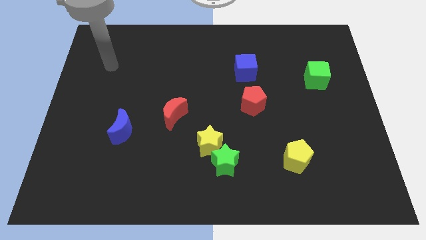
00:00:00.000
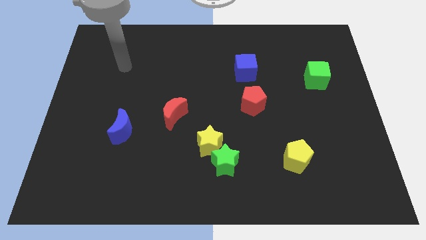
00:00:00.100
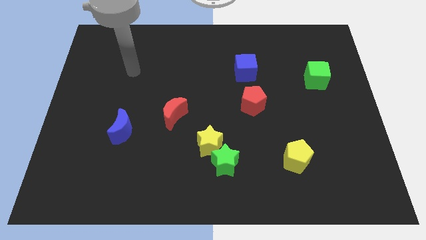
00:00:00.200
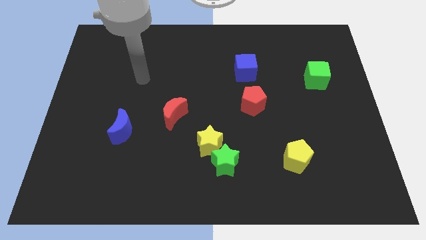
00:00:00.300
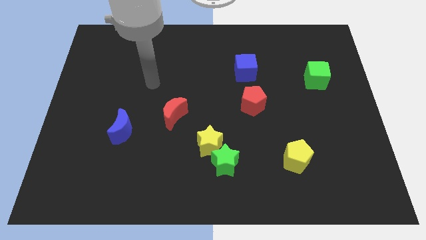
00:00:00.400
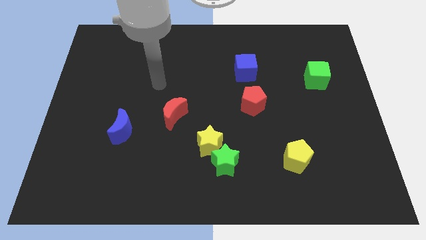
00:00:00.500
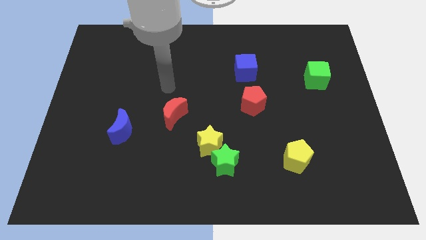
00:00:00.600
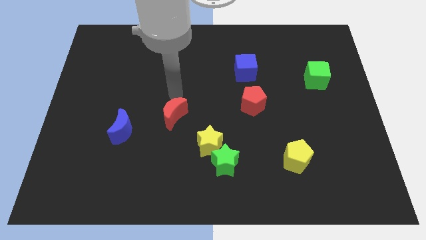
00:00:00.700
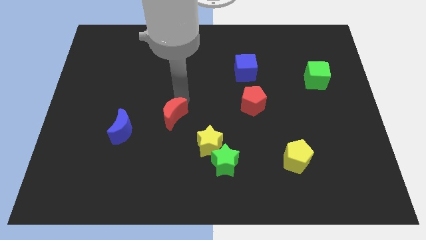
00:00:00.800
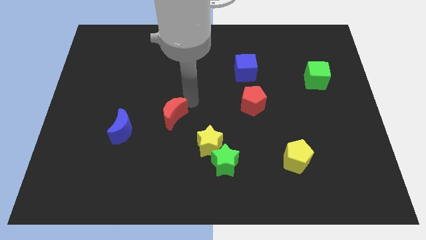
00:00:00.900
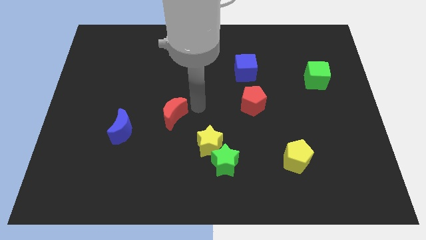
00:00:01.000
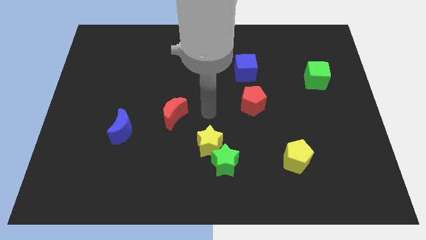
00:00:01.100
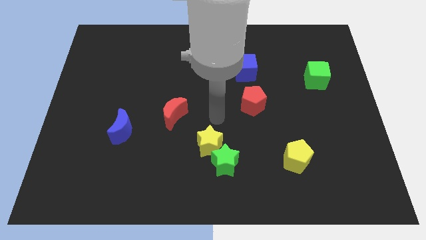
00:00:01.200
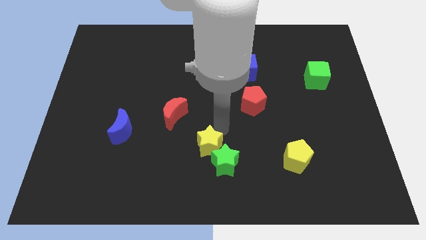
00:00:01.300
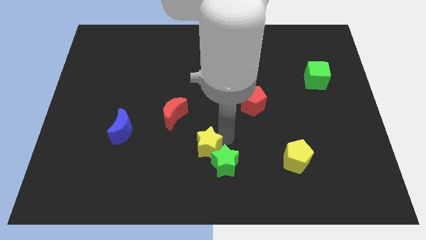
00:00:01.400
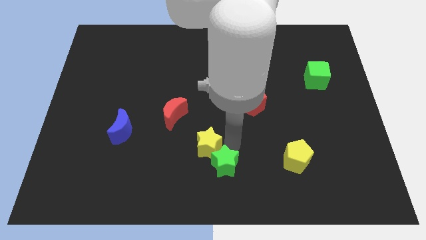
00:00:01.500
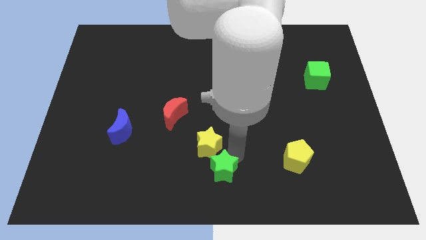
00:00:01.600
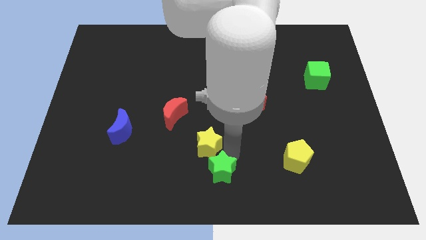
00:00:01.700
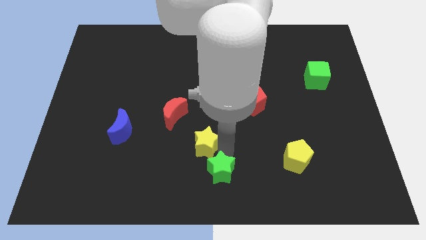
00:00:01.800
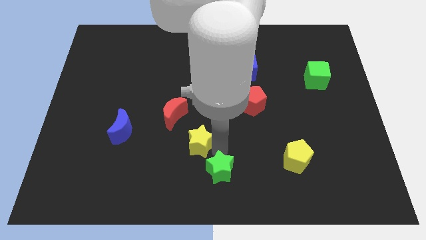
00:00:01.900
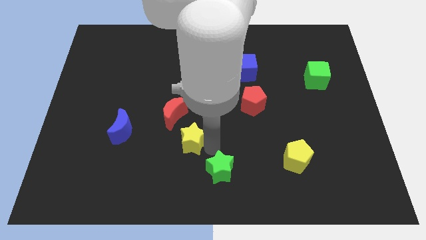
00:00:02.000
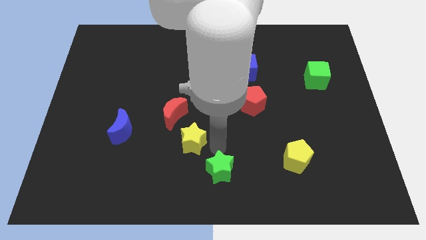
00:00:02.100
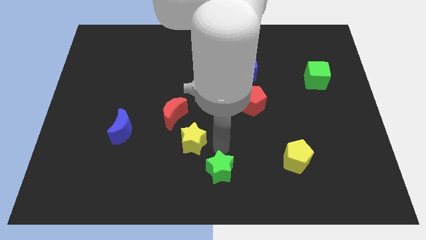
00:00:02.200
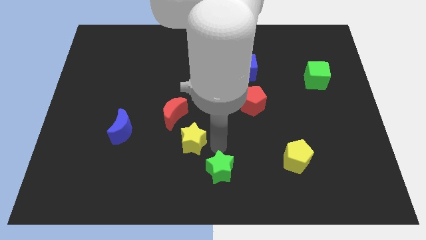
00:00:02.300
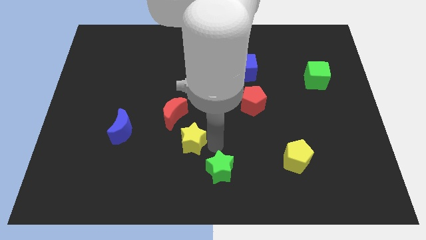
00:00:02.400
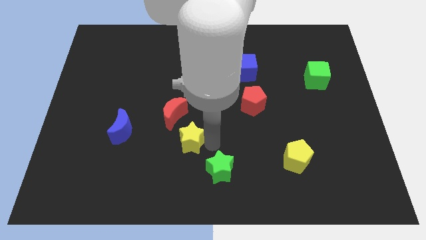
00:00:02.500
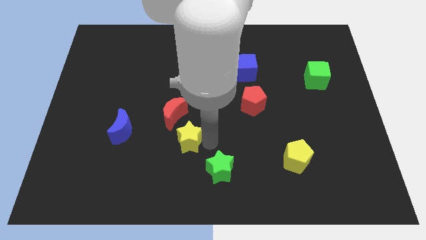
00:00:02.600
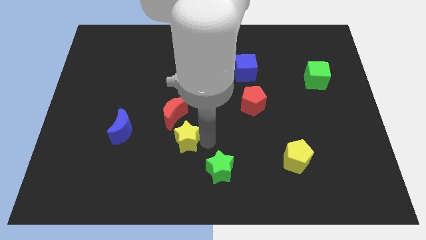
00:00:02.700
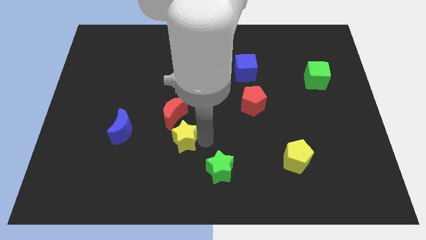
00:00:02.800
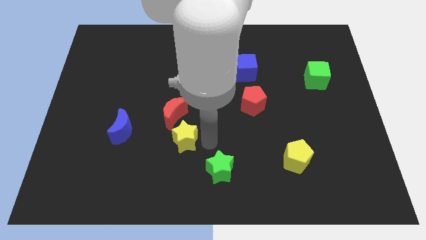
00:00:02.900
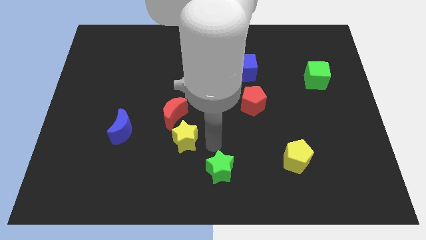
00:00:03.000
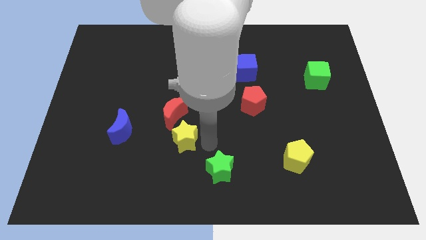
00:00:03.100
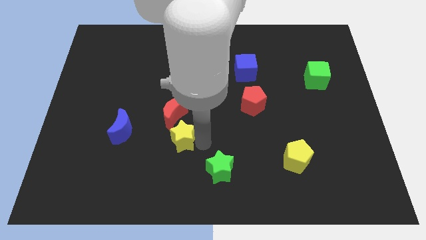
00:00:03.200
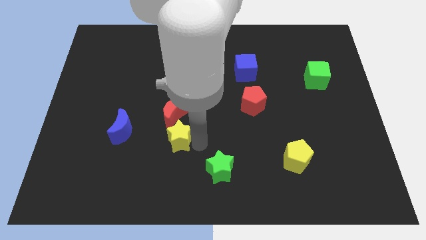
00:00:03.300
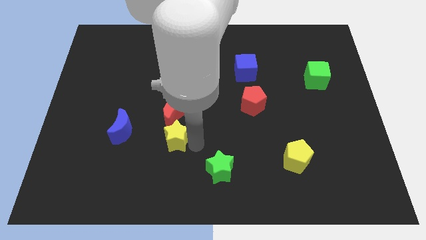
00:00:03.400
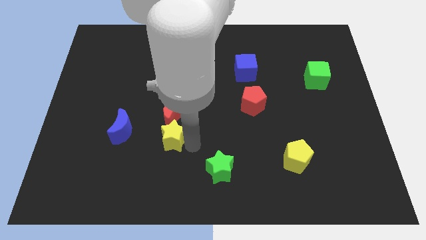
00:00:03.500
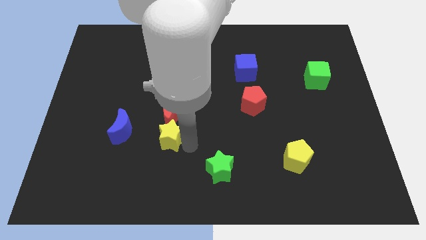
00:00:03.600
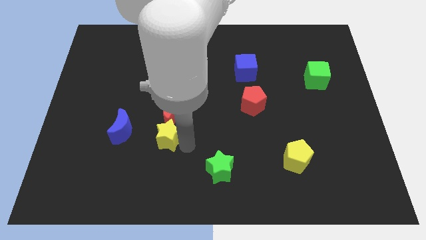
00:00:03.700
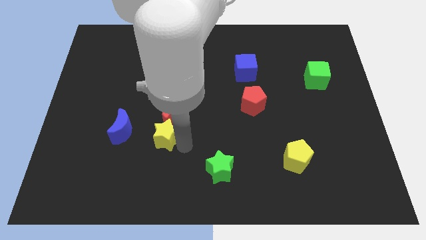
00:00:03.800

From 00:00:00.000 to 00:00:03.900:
slightly slide the yellow star diagonally up and left

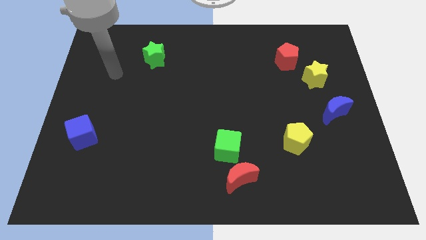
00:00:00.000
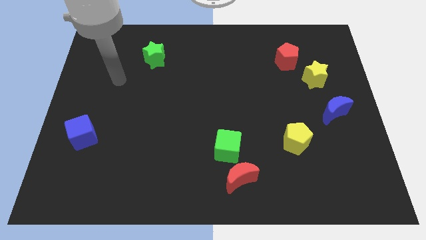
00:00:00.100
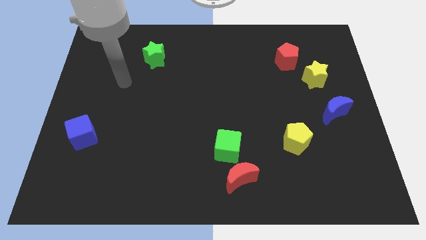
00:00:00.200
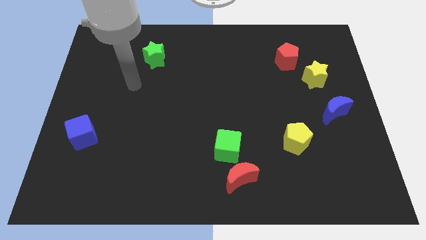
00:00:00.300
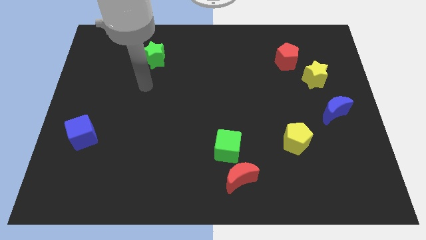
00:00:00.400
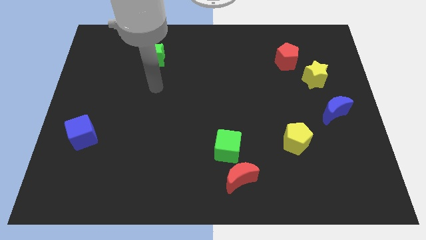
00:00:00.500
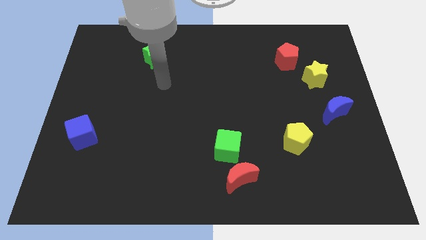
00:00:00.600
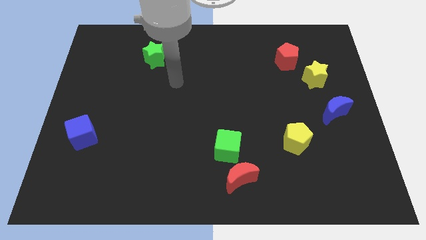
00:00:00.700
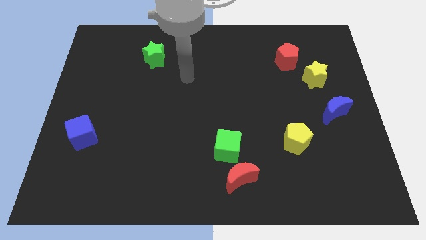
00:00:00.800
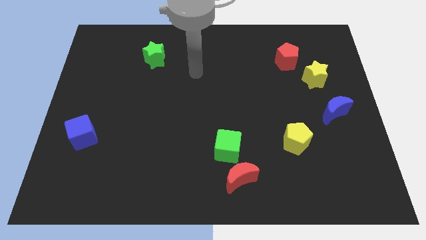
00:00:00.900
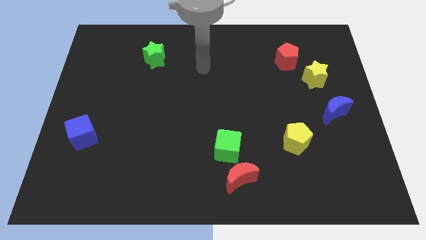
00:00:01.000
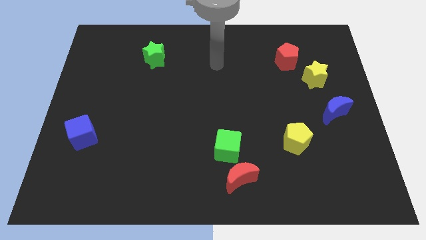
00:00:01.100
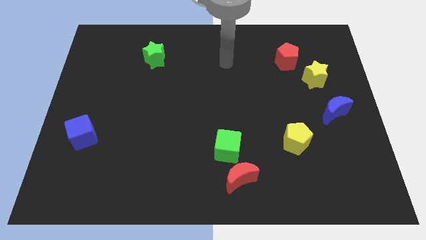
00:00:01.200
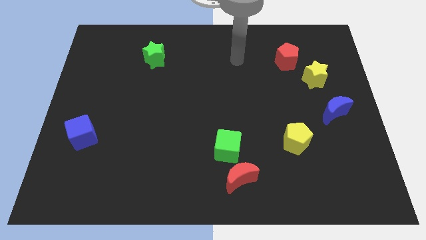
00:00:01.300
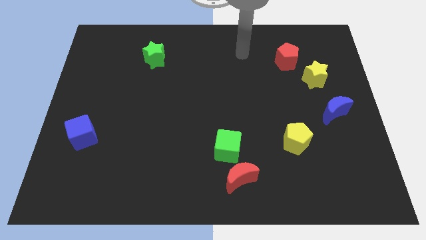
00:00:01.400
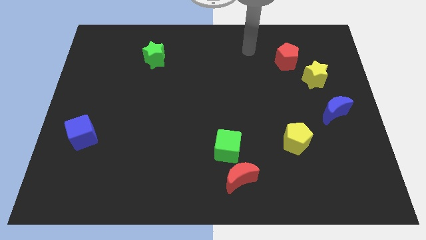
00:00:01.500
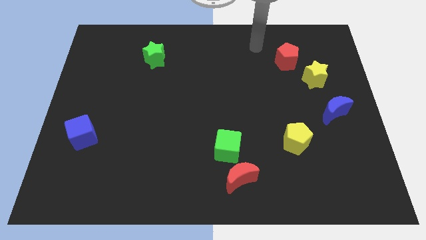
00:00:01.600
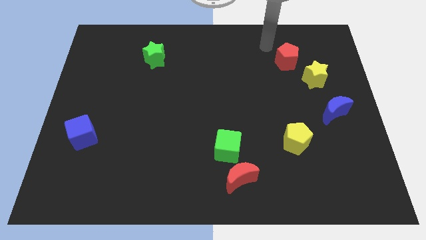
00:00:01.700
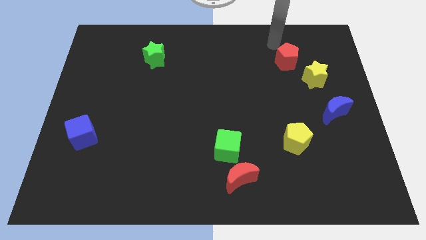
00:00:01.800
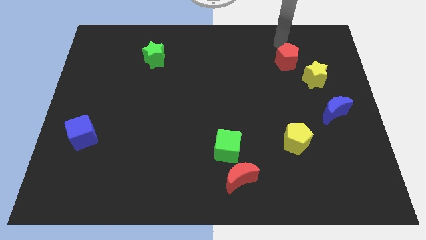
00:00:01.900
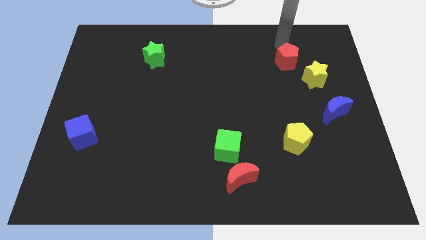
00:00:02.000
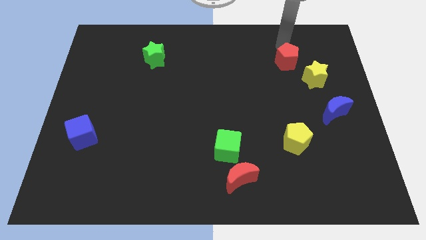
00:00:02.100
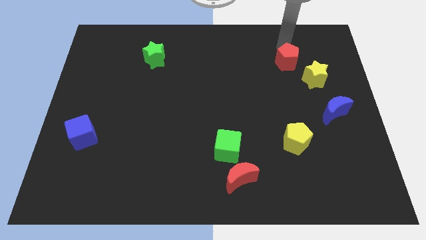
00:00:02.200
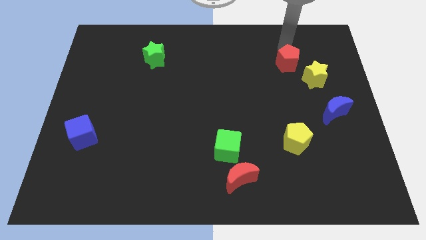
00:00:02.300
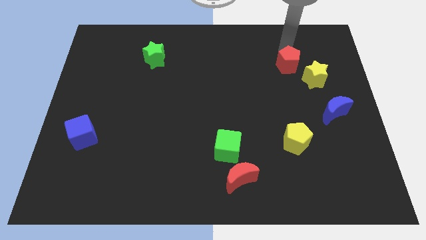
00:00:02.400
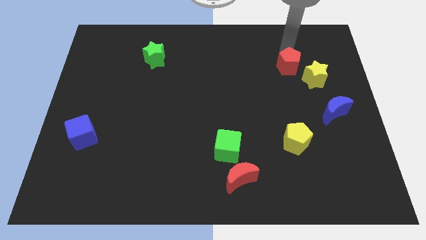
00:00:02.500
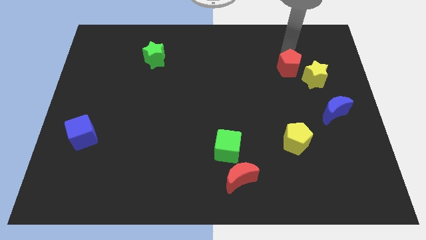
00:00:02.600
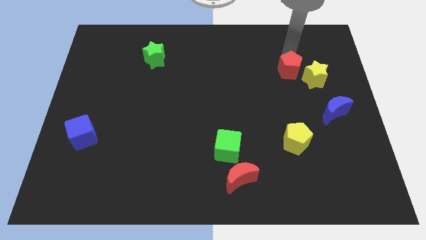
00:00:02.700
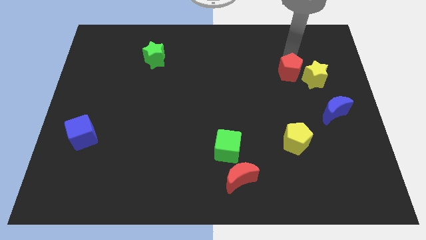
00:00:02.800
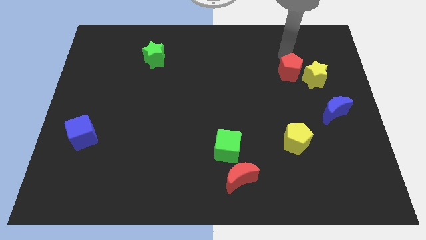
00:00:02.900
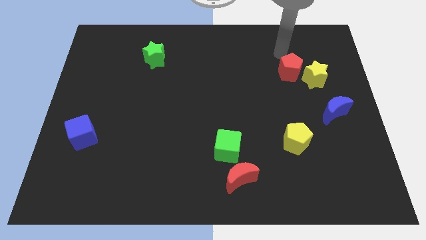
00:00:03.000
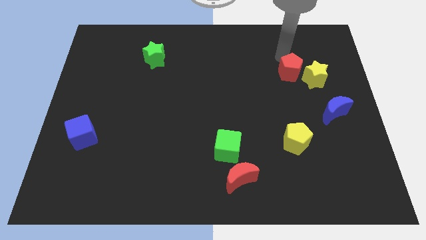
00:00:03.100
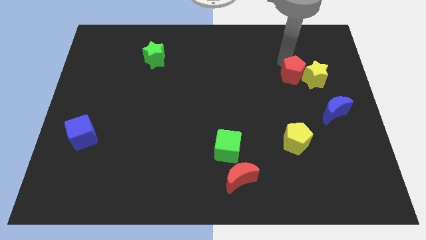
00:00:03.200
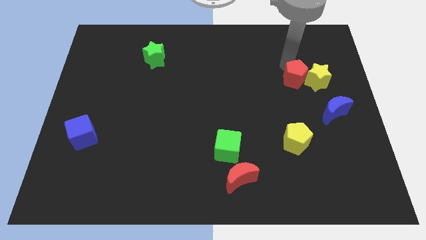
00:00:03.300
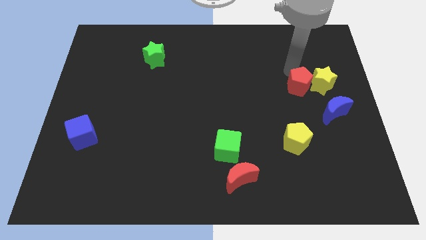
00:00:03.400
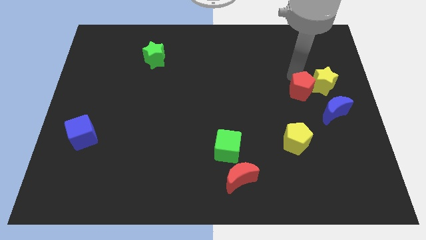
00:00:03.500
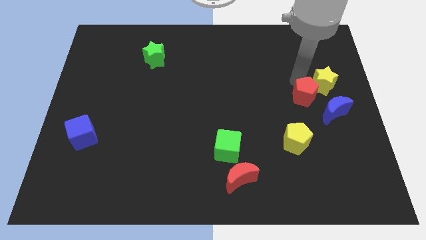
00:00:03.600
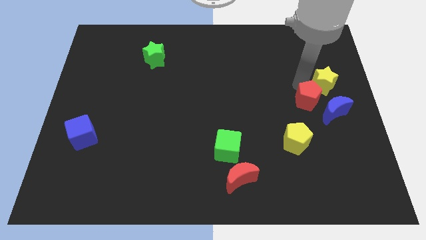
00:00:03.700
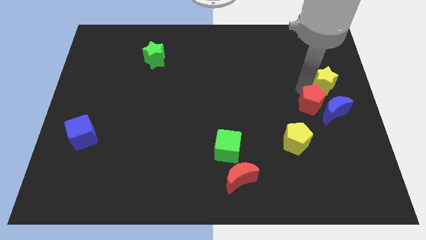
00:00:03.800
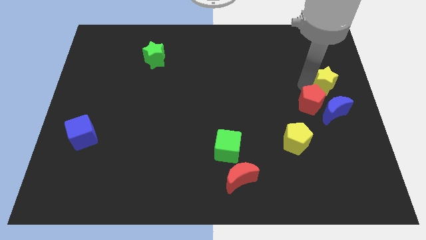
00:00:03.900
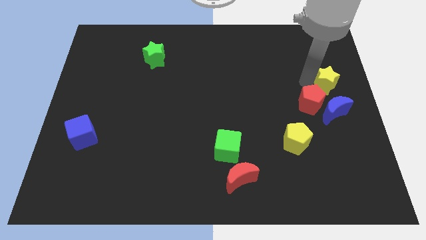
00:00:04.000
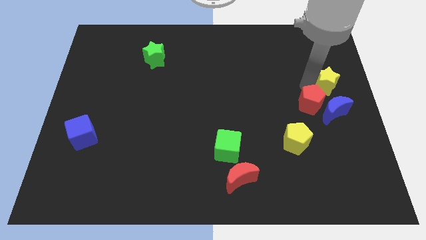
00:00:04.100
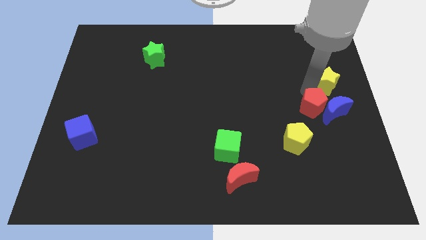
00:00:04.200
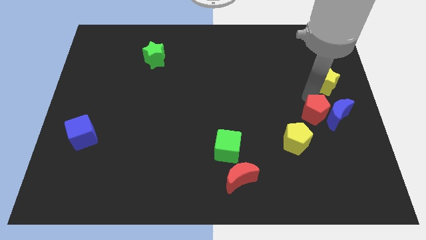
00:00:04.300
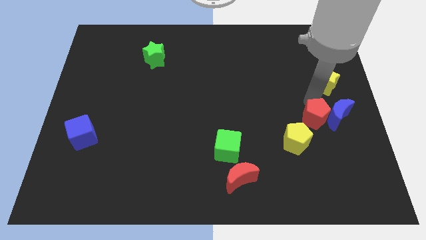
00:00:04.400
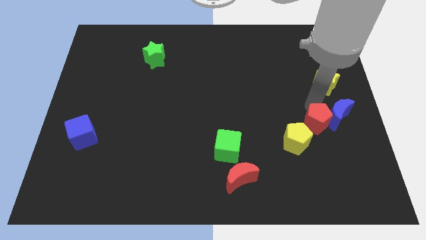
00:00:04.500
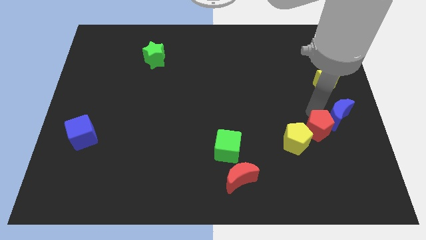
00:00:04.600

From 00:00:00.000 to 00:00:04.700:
push the red pentagon down
